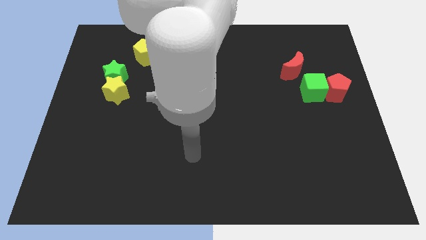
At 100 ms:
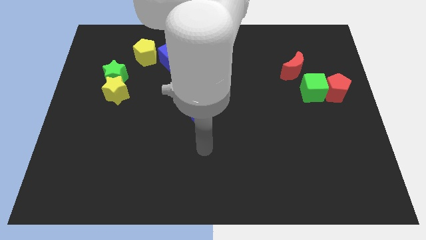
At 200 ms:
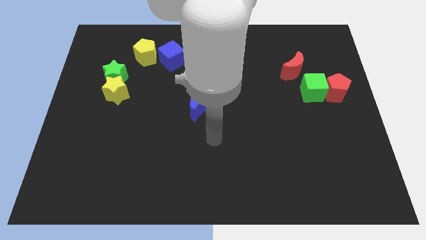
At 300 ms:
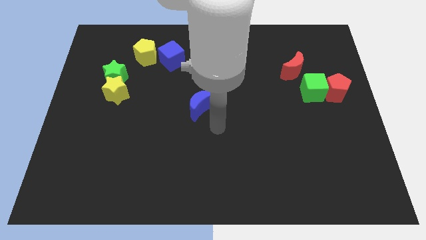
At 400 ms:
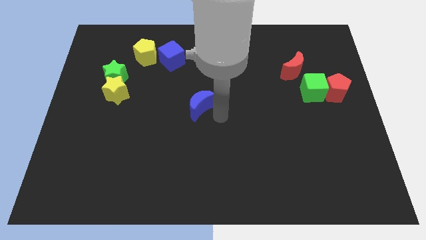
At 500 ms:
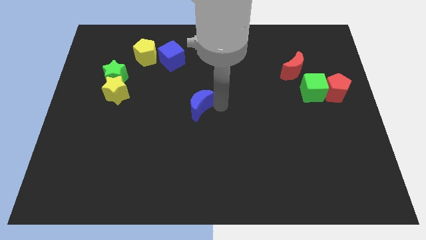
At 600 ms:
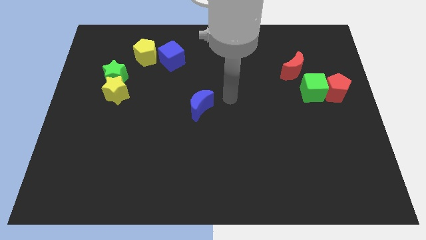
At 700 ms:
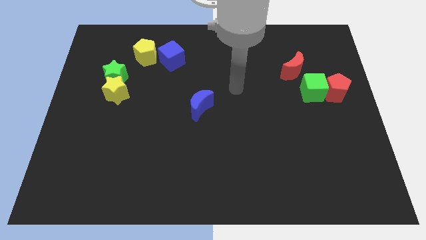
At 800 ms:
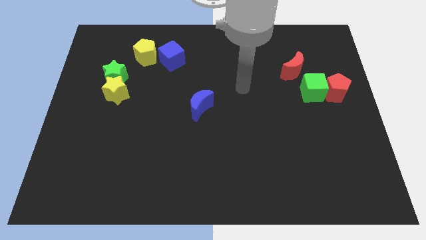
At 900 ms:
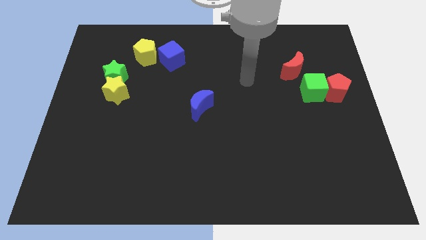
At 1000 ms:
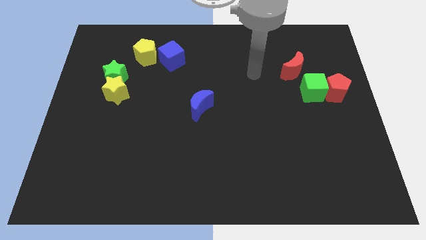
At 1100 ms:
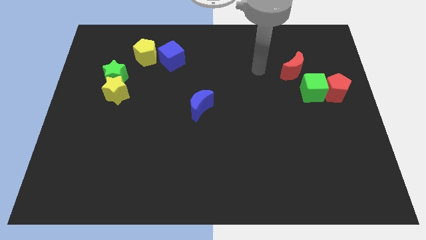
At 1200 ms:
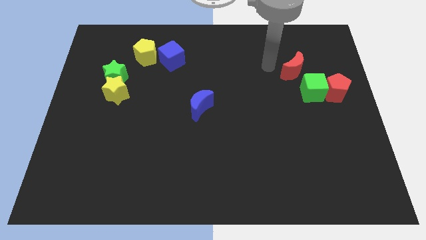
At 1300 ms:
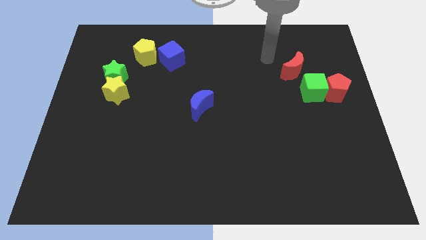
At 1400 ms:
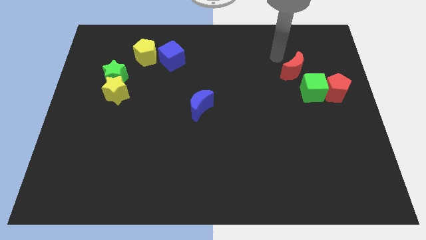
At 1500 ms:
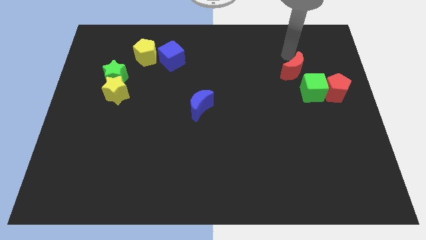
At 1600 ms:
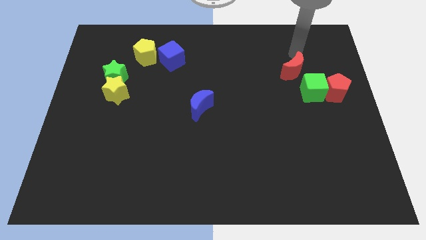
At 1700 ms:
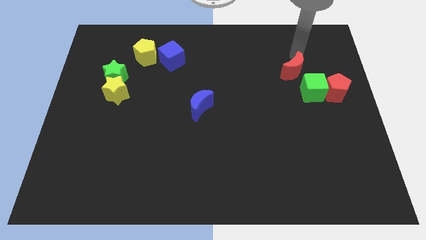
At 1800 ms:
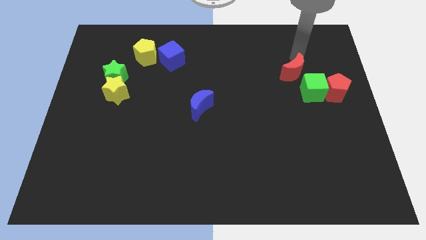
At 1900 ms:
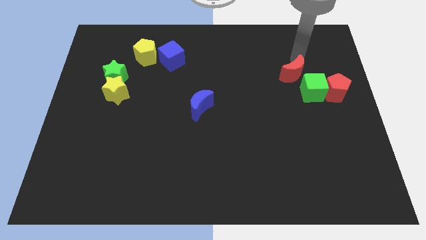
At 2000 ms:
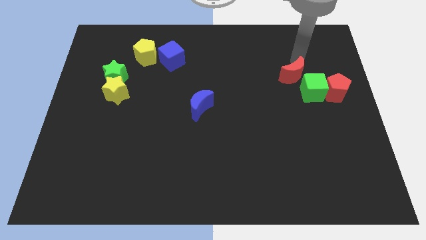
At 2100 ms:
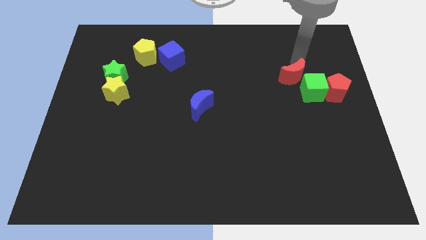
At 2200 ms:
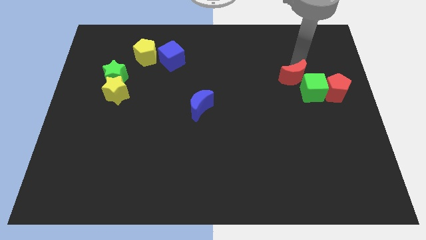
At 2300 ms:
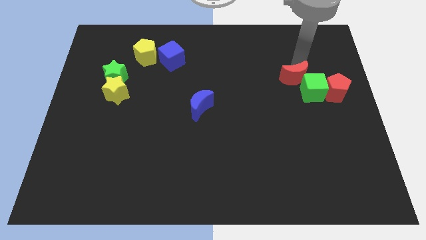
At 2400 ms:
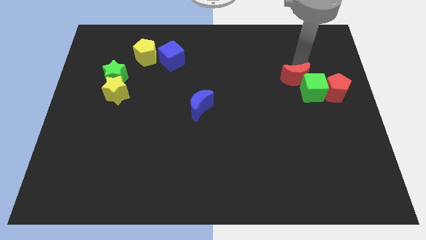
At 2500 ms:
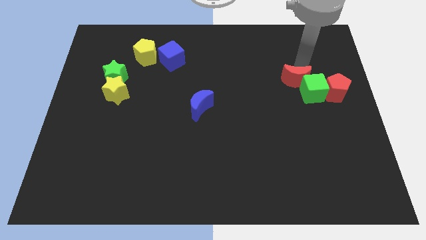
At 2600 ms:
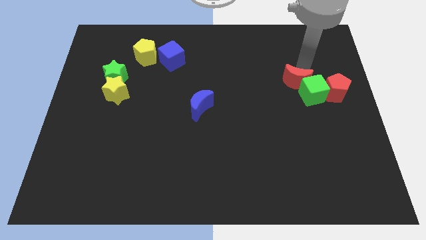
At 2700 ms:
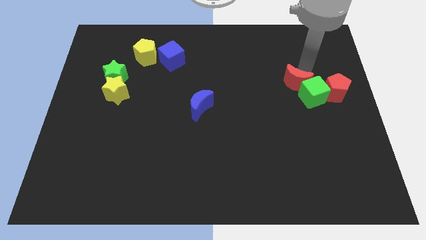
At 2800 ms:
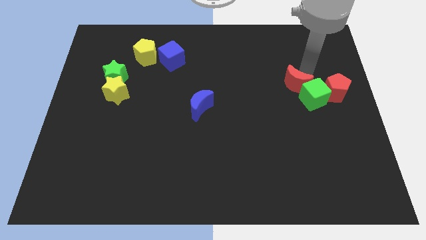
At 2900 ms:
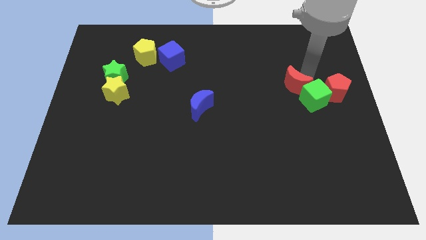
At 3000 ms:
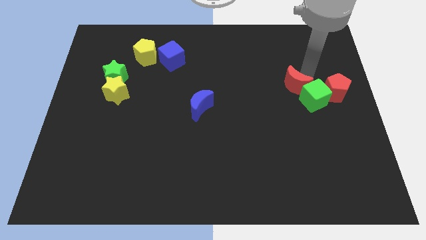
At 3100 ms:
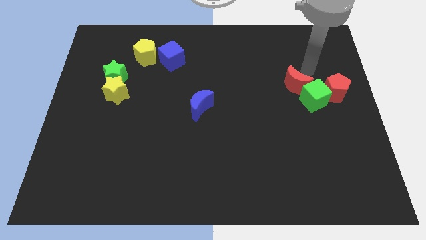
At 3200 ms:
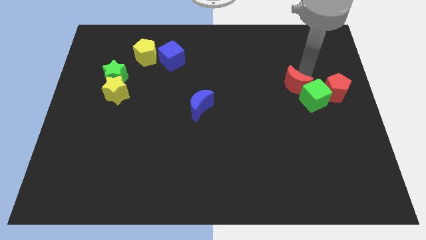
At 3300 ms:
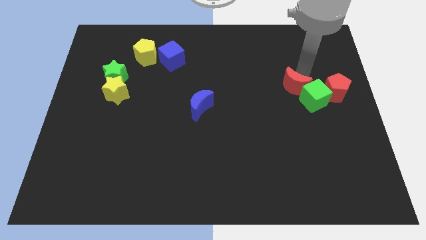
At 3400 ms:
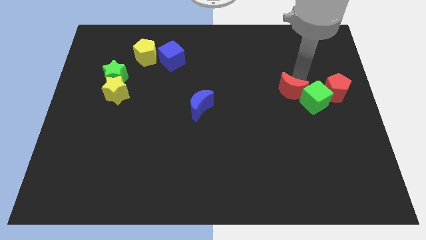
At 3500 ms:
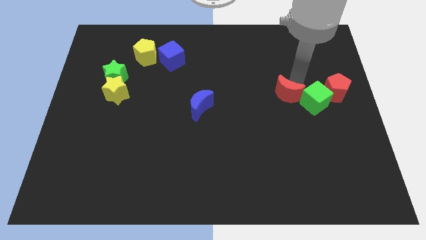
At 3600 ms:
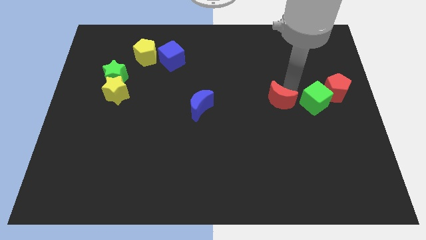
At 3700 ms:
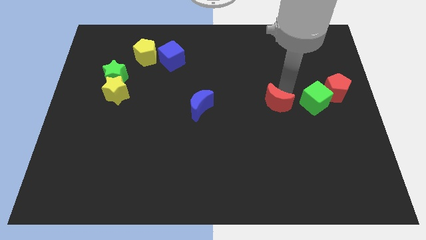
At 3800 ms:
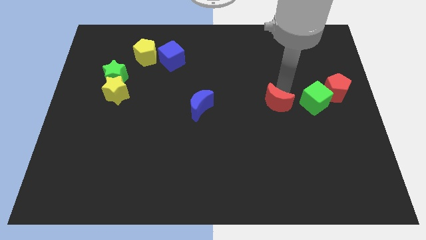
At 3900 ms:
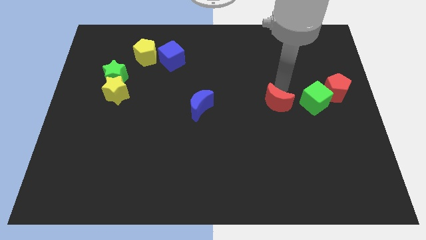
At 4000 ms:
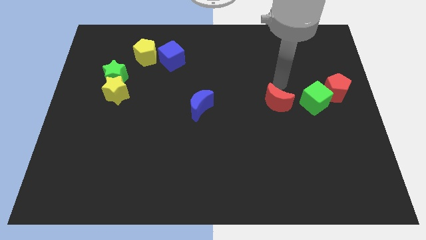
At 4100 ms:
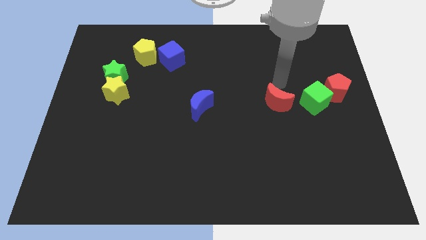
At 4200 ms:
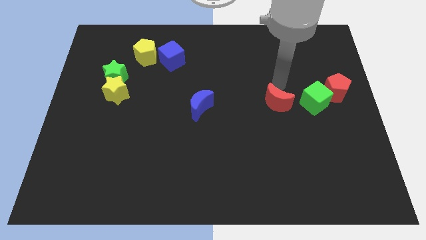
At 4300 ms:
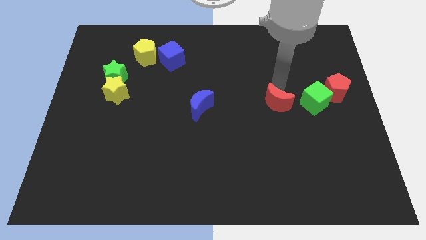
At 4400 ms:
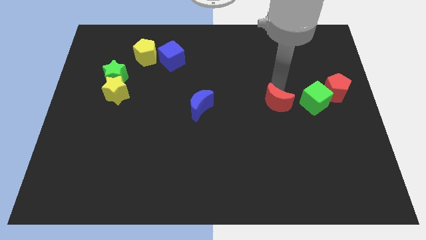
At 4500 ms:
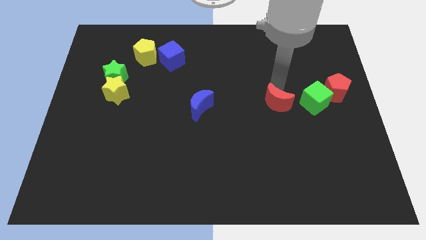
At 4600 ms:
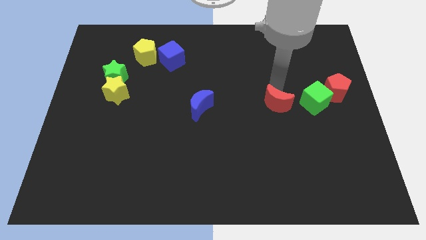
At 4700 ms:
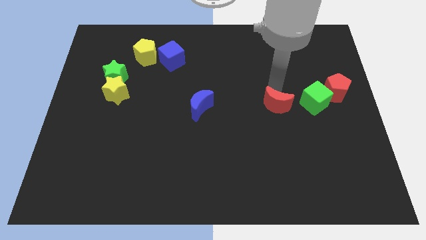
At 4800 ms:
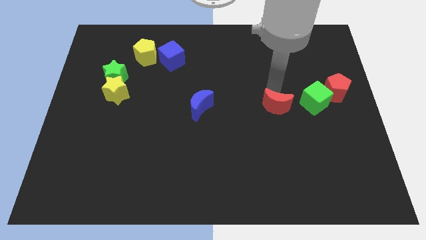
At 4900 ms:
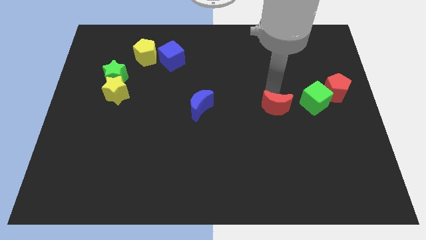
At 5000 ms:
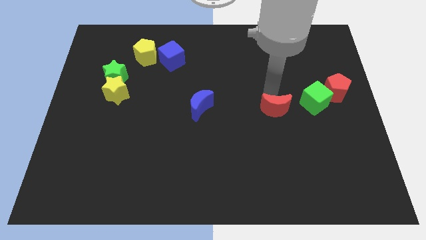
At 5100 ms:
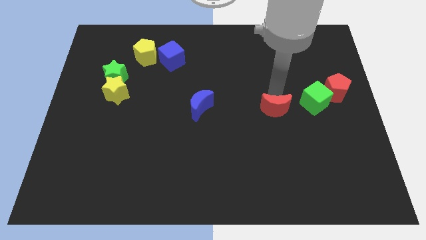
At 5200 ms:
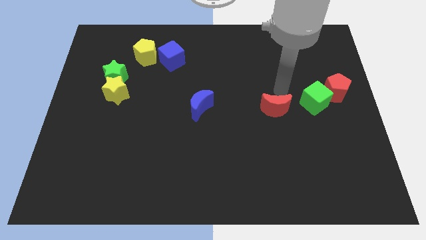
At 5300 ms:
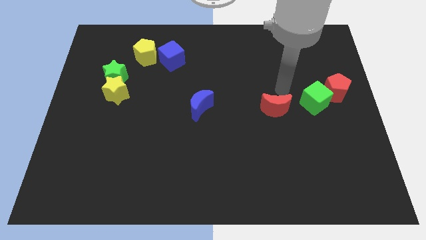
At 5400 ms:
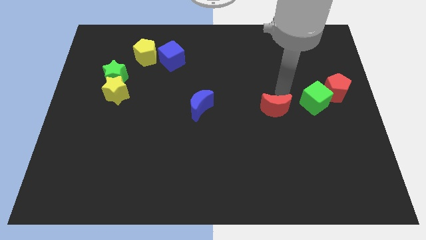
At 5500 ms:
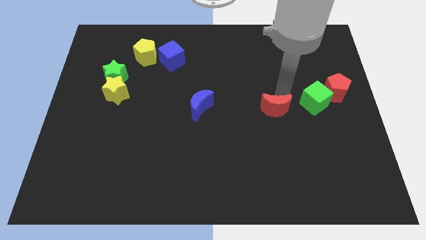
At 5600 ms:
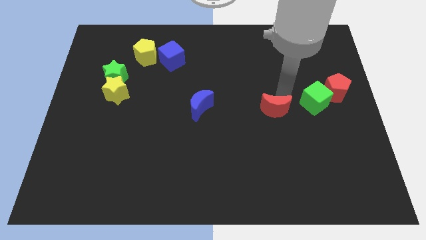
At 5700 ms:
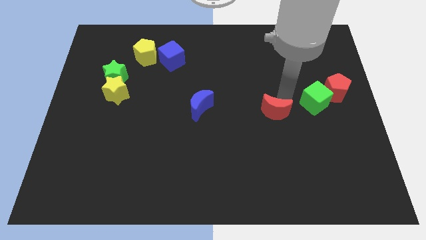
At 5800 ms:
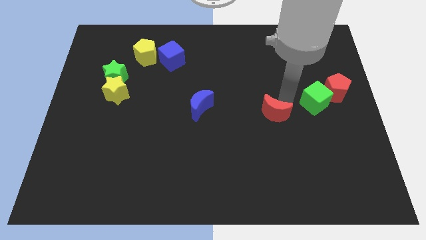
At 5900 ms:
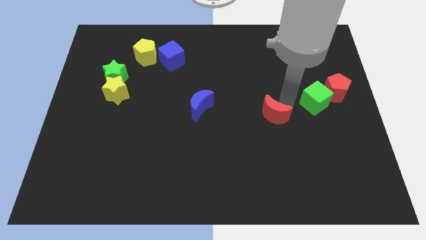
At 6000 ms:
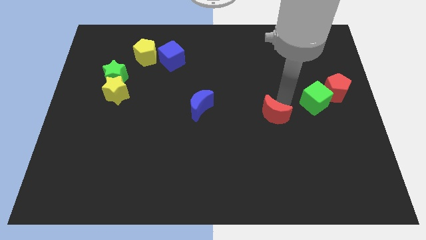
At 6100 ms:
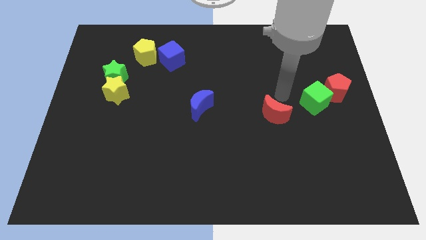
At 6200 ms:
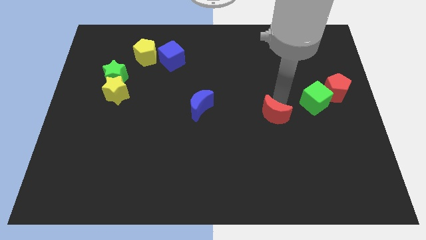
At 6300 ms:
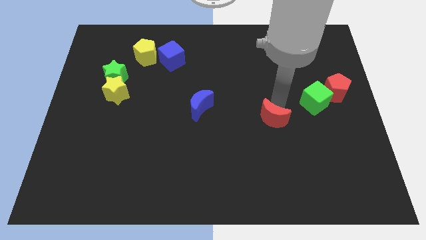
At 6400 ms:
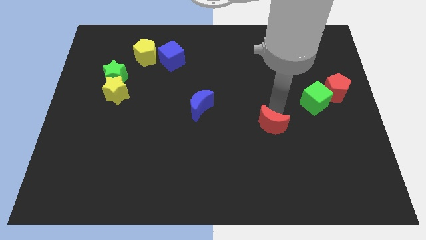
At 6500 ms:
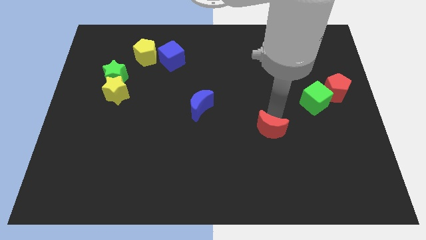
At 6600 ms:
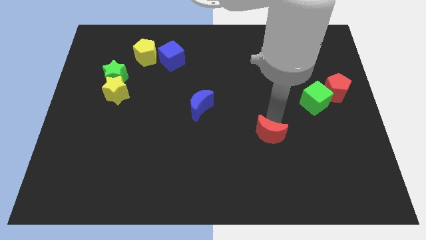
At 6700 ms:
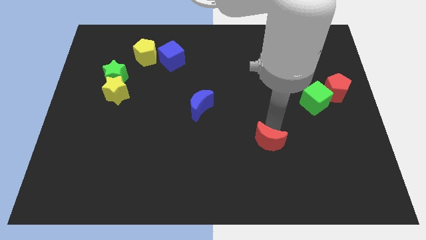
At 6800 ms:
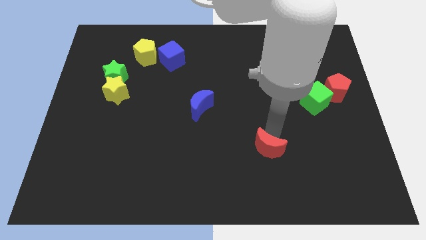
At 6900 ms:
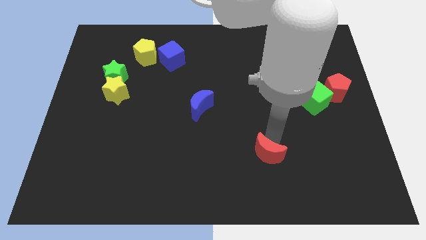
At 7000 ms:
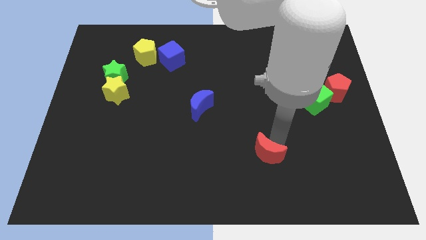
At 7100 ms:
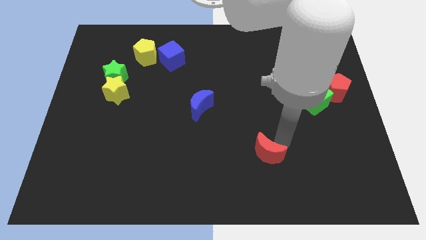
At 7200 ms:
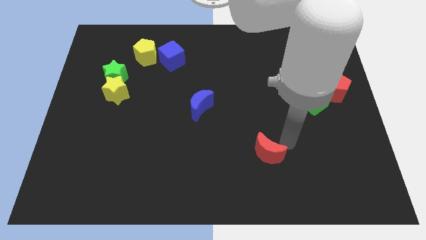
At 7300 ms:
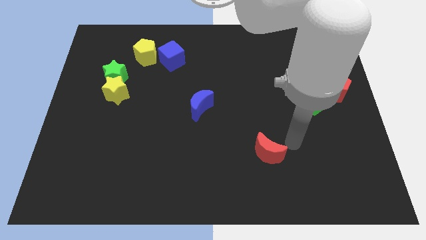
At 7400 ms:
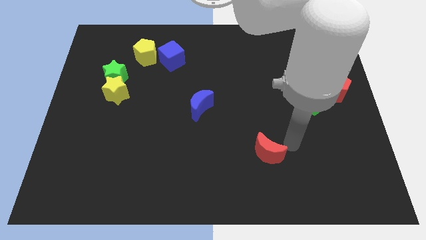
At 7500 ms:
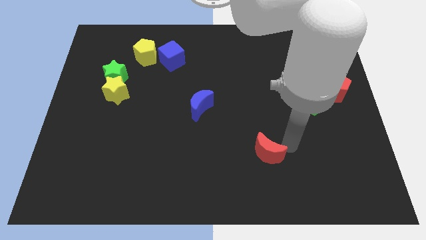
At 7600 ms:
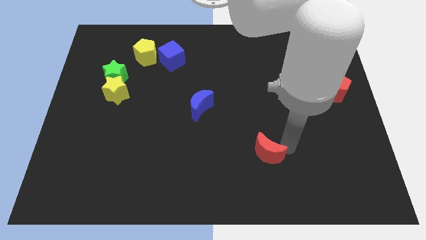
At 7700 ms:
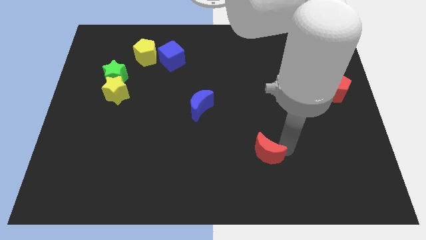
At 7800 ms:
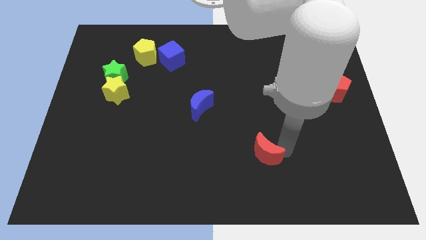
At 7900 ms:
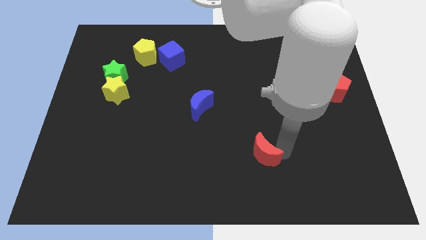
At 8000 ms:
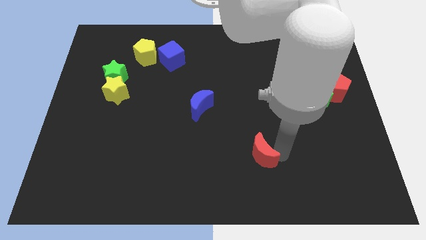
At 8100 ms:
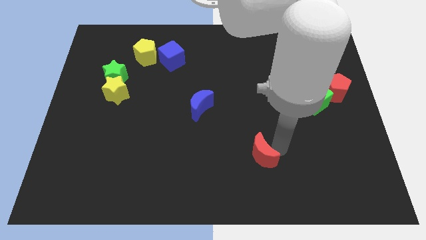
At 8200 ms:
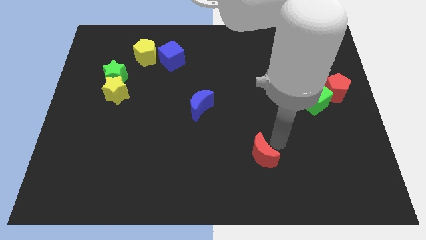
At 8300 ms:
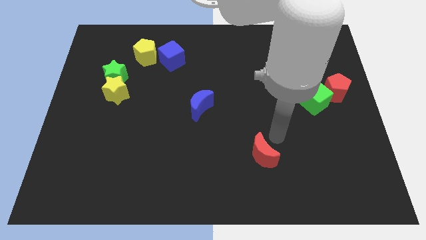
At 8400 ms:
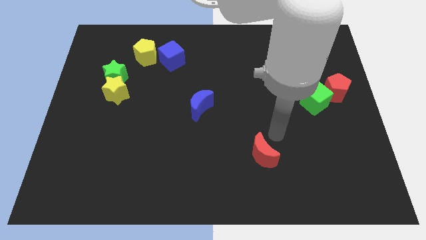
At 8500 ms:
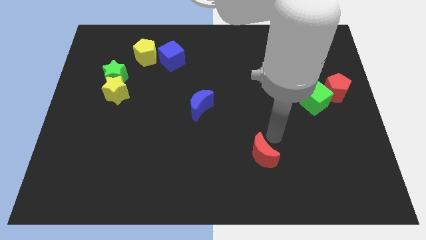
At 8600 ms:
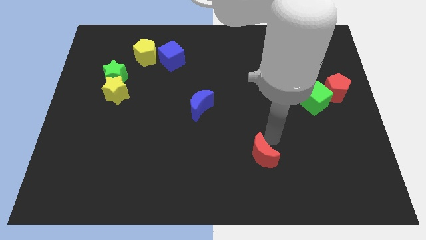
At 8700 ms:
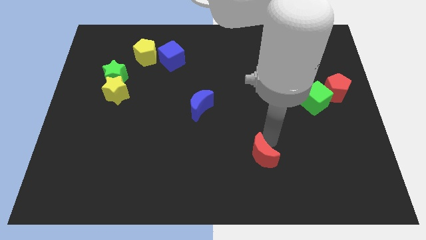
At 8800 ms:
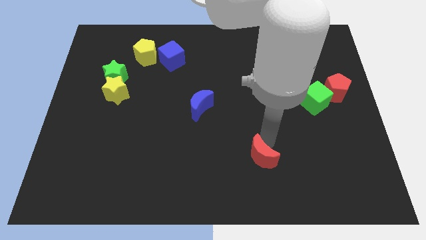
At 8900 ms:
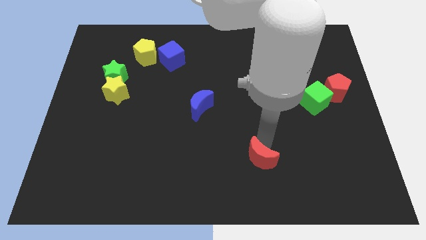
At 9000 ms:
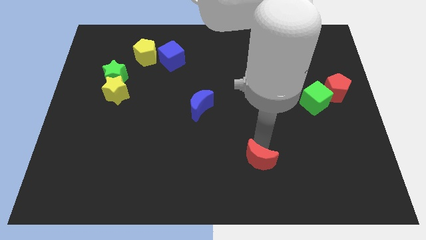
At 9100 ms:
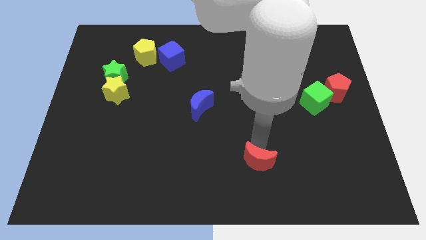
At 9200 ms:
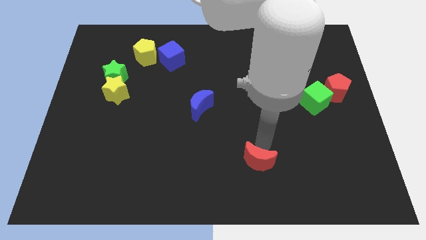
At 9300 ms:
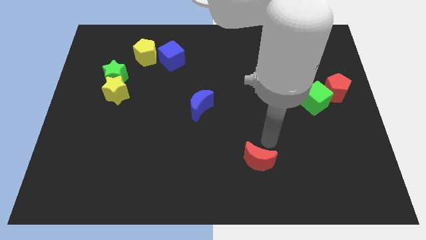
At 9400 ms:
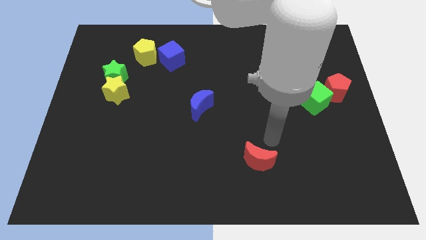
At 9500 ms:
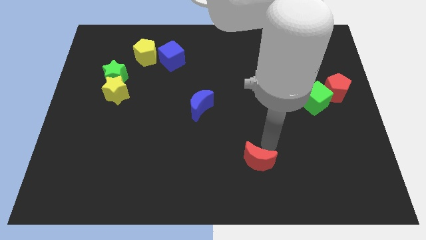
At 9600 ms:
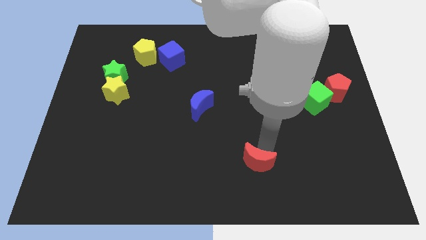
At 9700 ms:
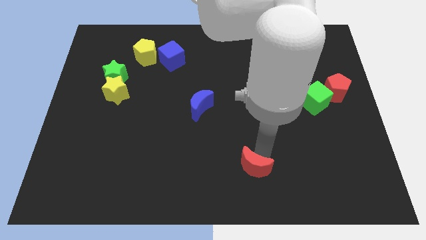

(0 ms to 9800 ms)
slide the red moon to the bottom side
